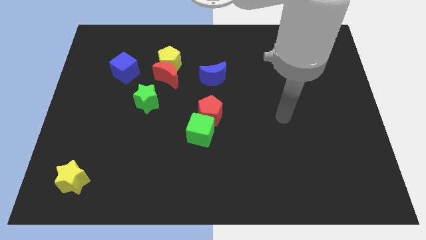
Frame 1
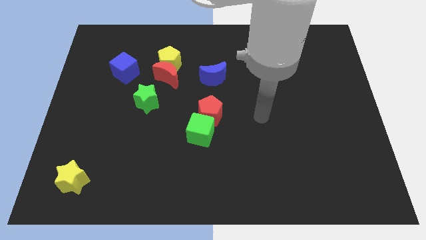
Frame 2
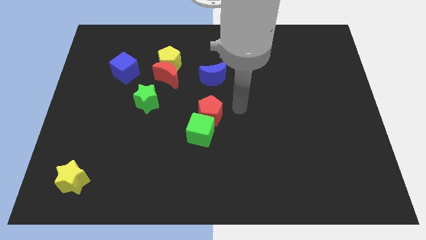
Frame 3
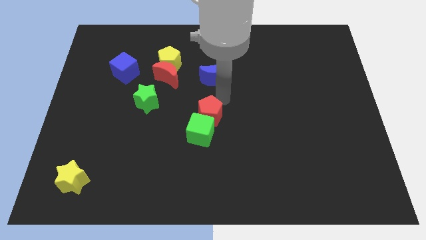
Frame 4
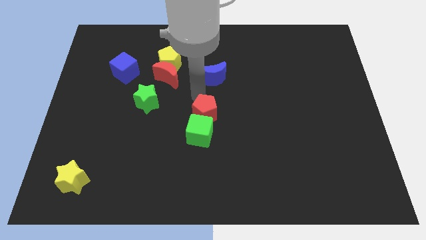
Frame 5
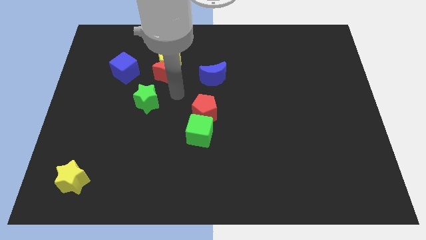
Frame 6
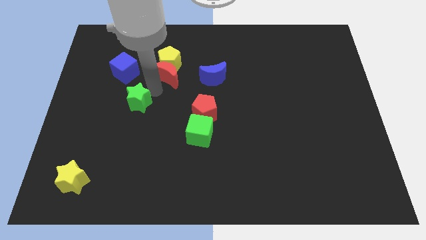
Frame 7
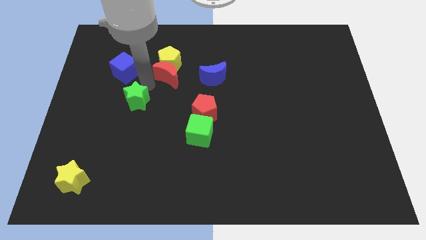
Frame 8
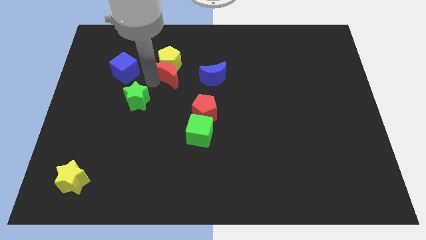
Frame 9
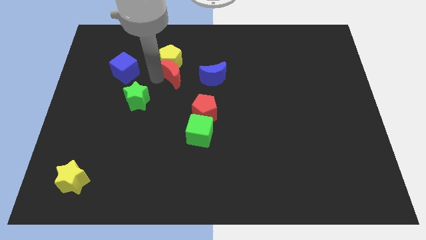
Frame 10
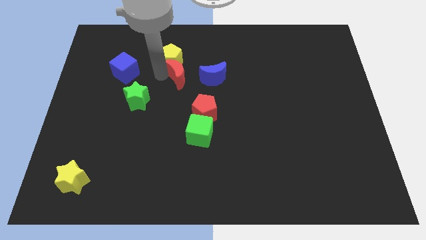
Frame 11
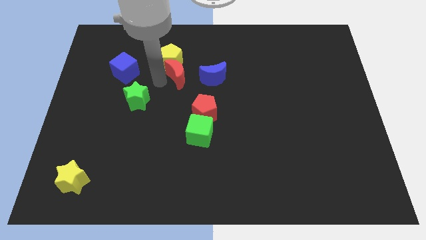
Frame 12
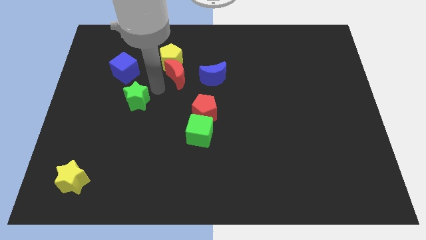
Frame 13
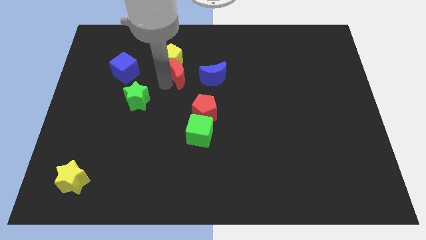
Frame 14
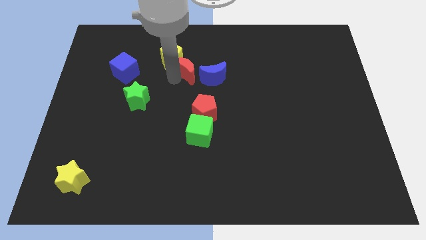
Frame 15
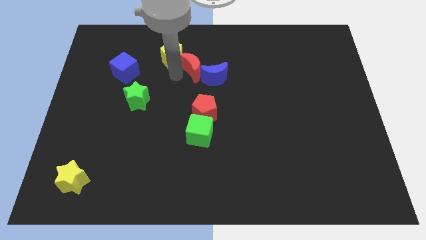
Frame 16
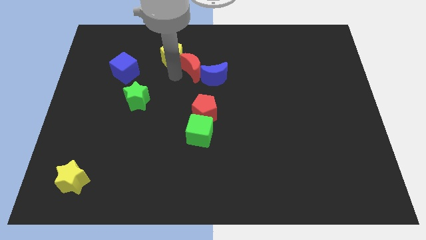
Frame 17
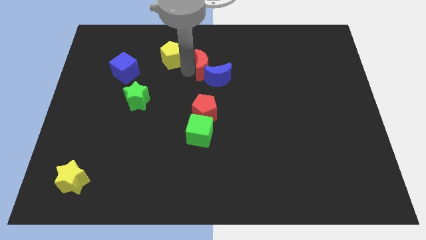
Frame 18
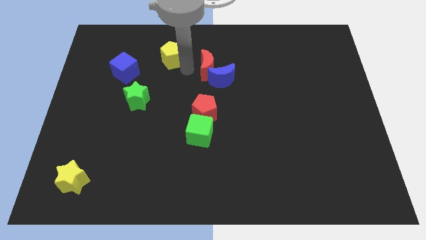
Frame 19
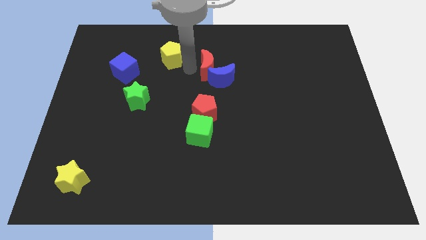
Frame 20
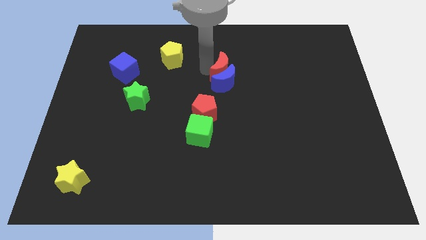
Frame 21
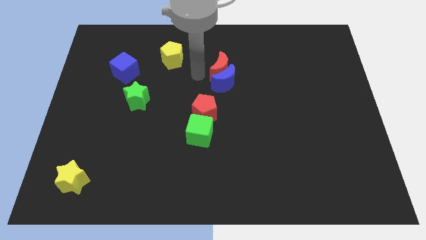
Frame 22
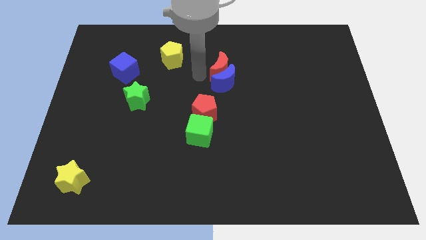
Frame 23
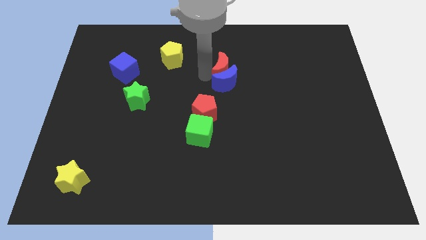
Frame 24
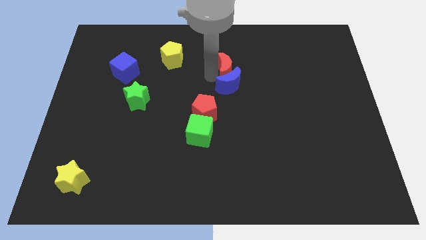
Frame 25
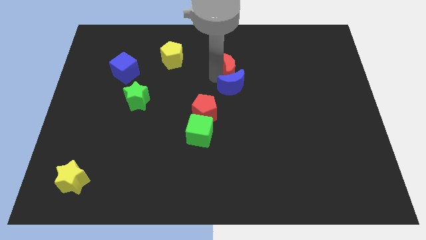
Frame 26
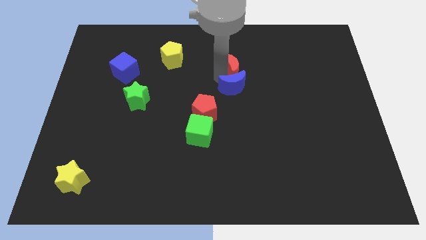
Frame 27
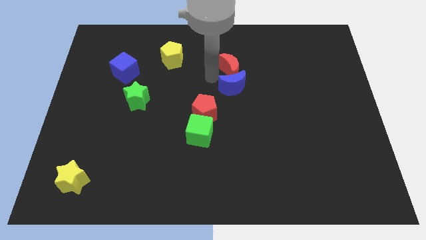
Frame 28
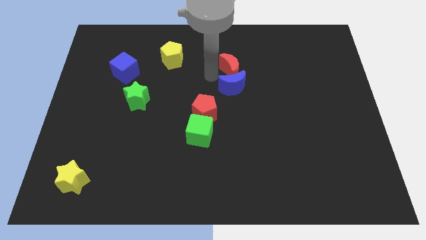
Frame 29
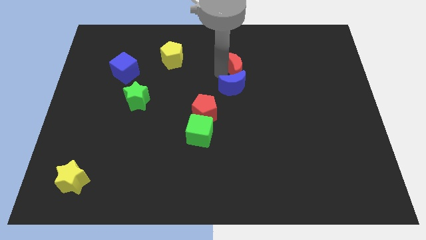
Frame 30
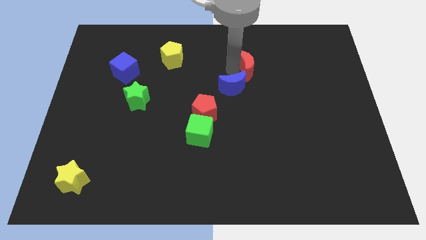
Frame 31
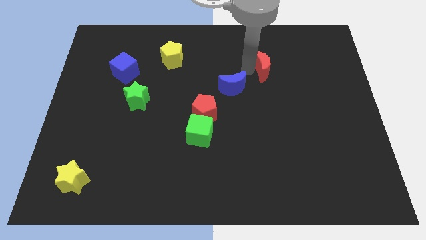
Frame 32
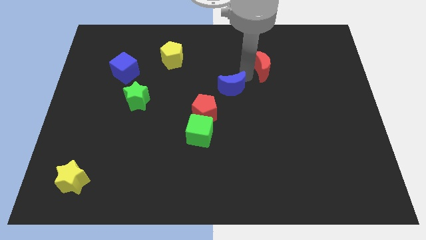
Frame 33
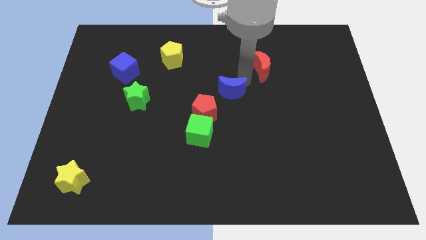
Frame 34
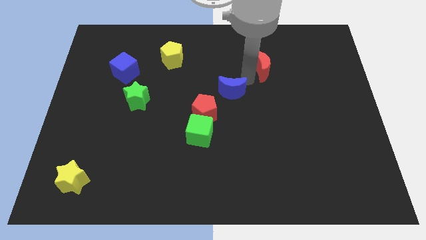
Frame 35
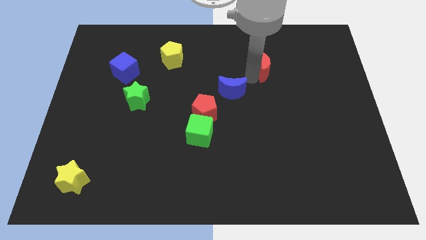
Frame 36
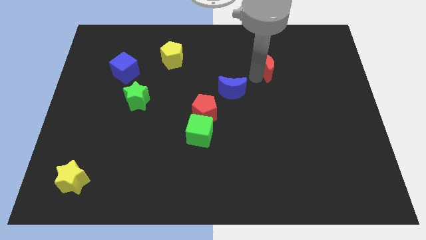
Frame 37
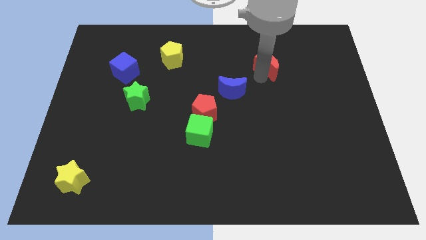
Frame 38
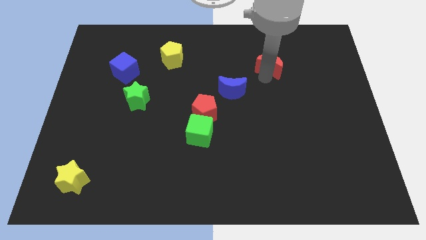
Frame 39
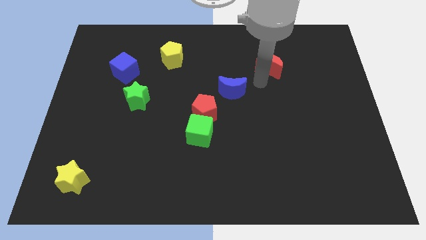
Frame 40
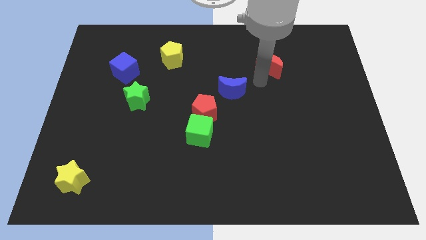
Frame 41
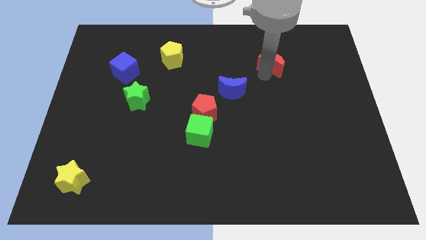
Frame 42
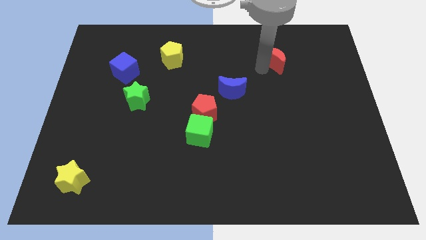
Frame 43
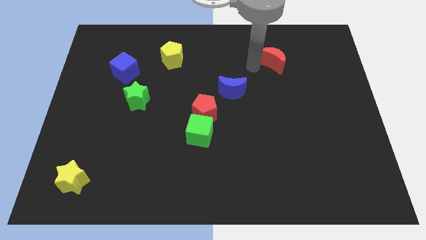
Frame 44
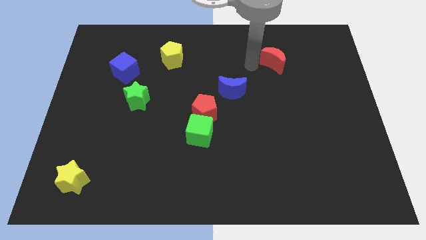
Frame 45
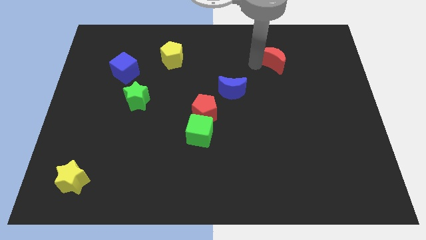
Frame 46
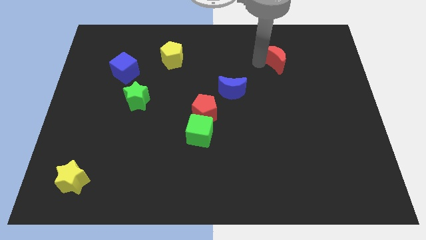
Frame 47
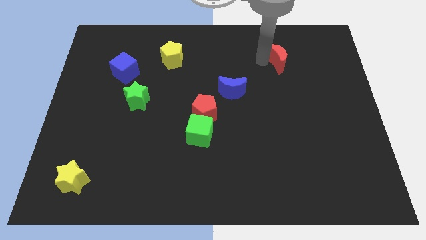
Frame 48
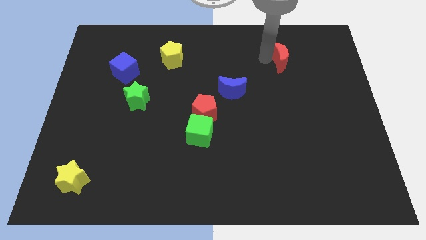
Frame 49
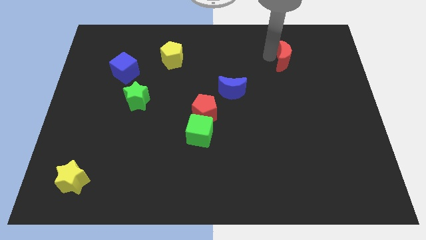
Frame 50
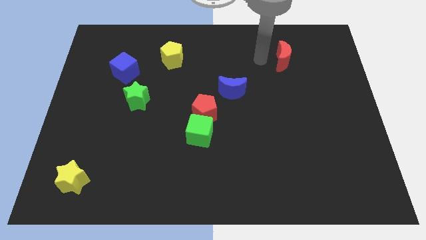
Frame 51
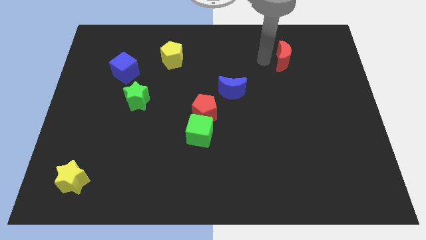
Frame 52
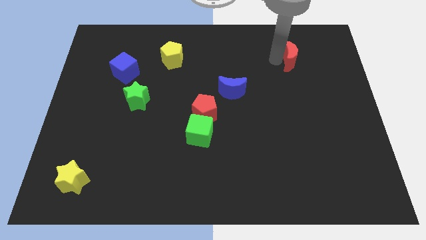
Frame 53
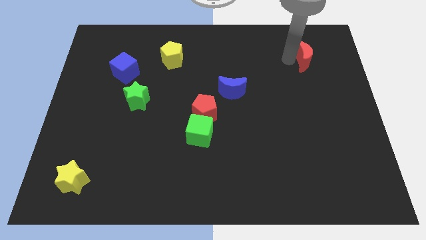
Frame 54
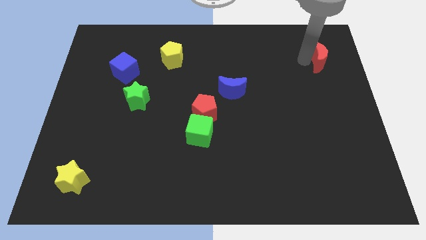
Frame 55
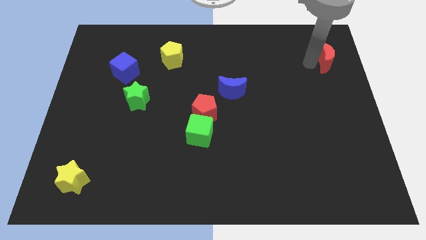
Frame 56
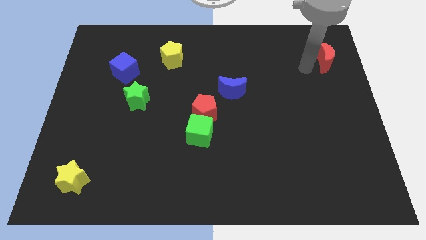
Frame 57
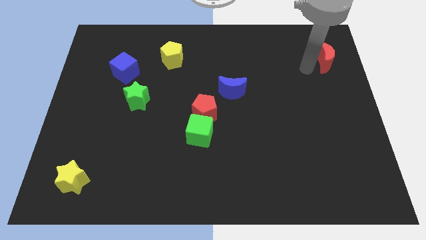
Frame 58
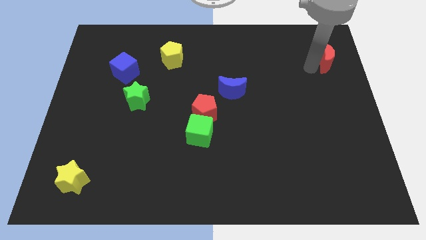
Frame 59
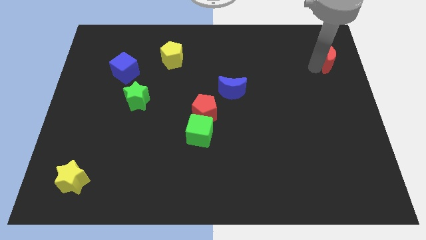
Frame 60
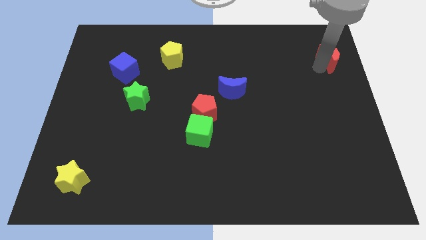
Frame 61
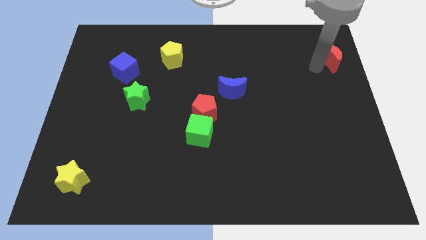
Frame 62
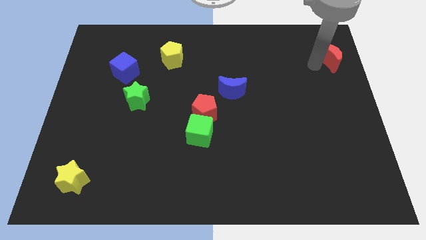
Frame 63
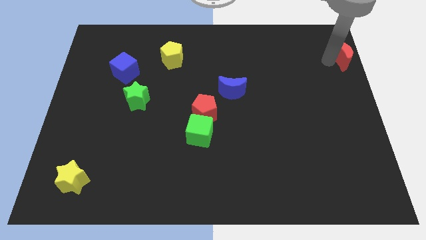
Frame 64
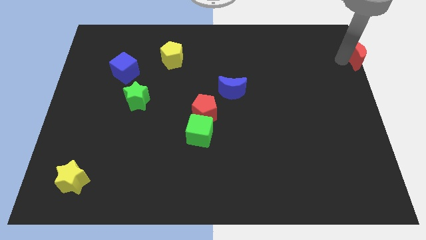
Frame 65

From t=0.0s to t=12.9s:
push the red moon to the top right

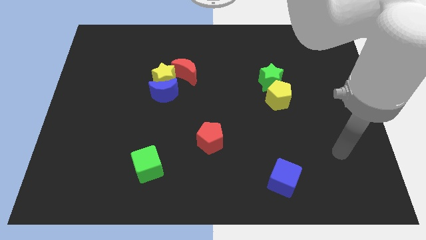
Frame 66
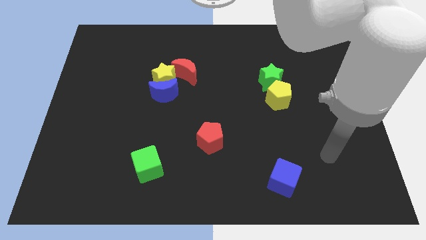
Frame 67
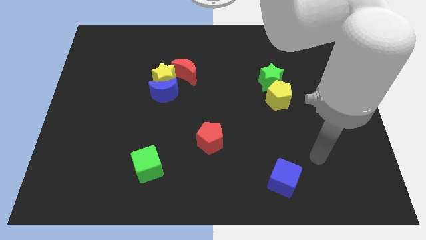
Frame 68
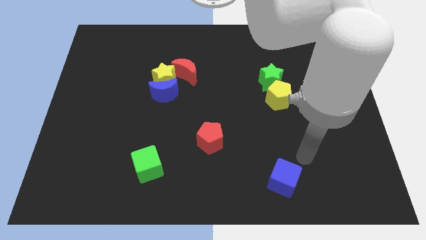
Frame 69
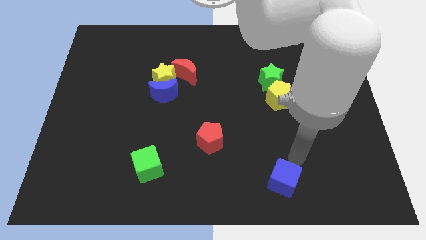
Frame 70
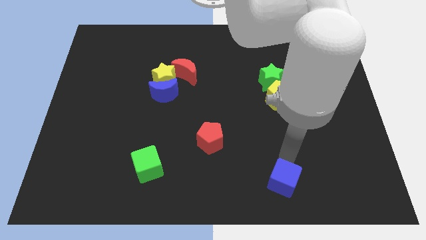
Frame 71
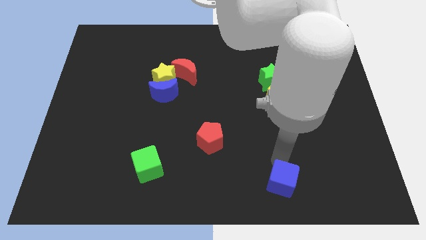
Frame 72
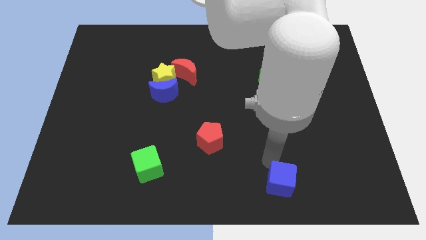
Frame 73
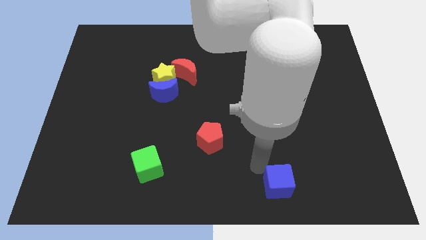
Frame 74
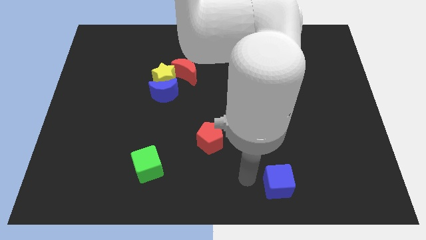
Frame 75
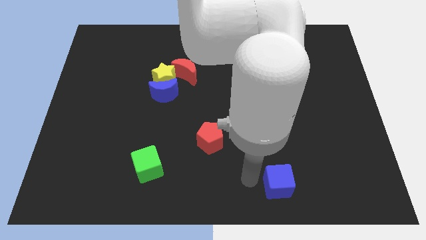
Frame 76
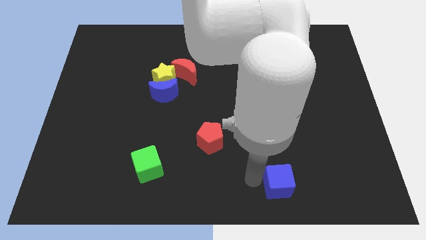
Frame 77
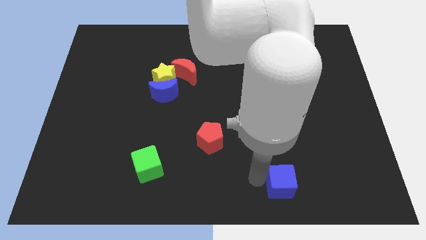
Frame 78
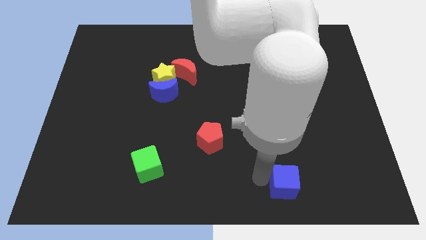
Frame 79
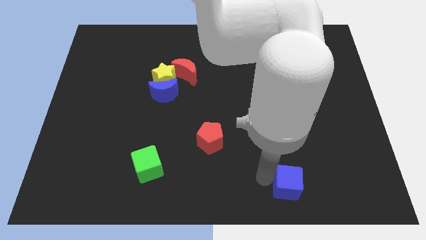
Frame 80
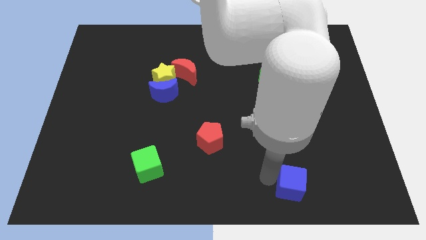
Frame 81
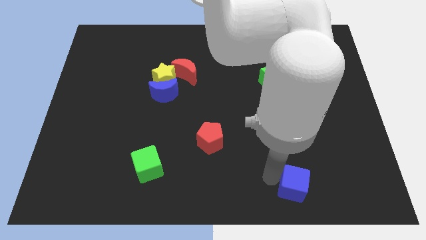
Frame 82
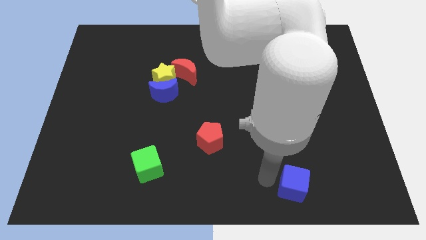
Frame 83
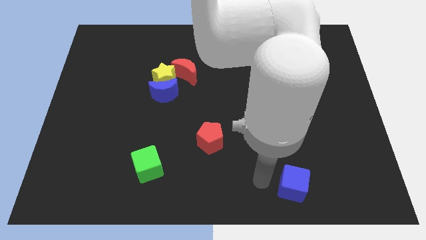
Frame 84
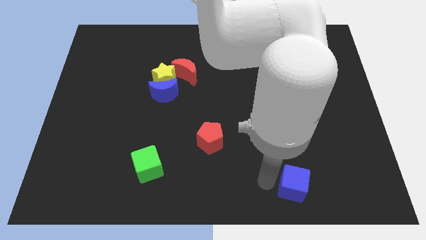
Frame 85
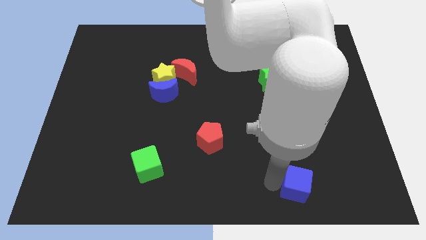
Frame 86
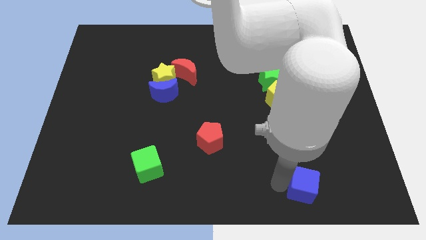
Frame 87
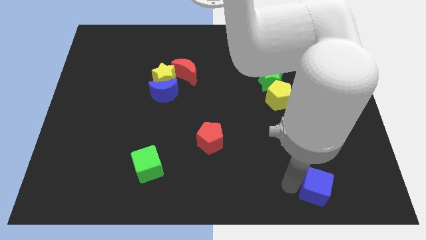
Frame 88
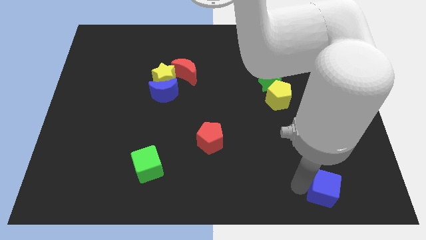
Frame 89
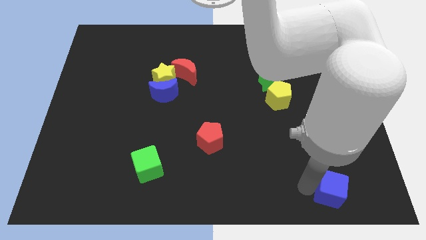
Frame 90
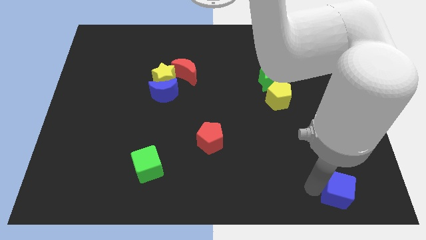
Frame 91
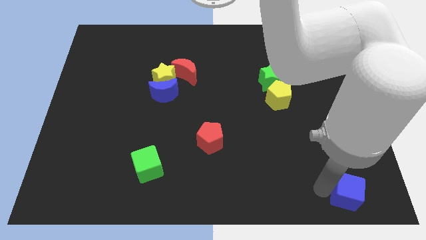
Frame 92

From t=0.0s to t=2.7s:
move the blue cube to the bottom right corner
